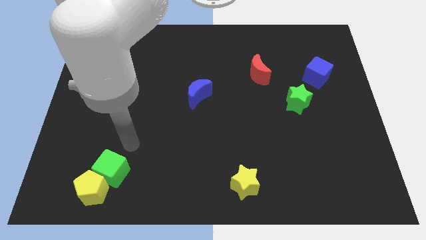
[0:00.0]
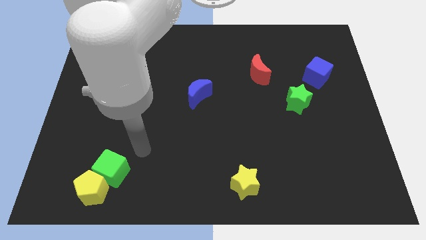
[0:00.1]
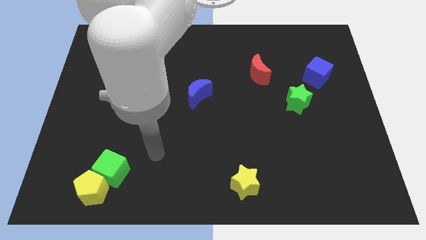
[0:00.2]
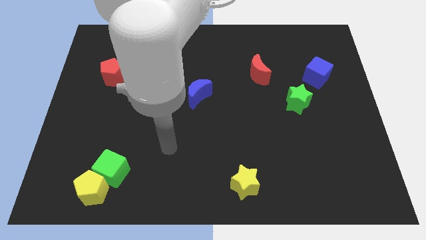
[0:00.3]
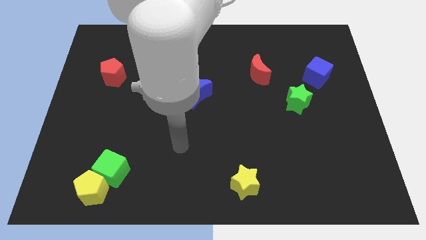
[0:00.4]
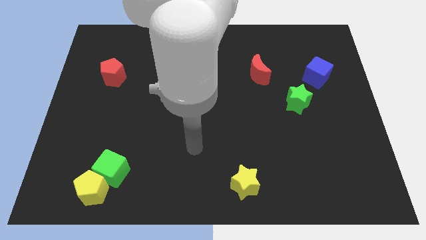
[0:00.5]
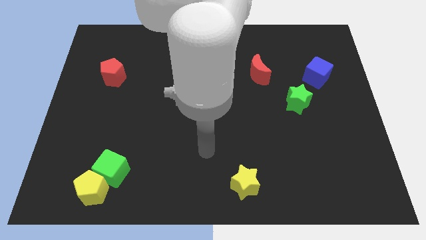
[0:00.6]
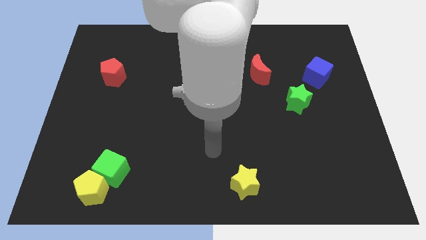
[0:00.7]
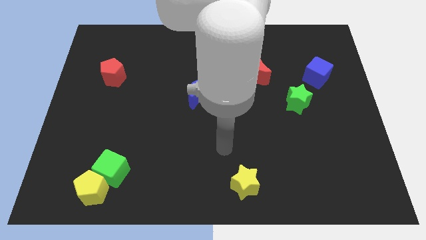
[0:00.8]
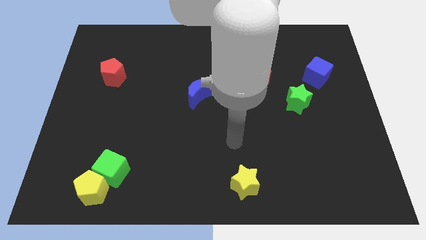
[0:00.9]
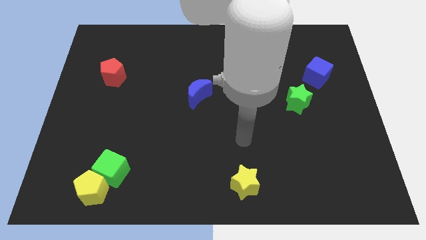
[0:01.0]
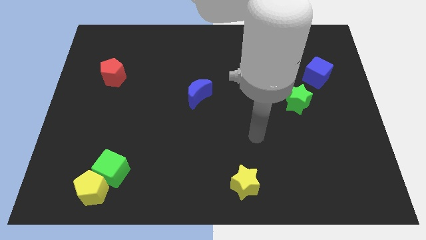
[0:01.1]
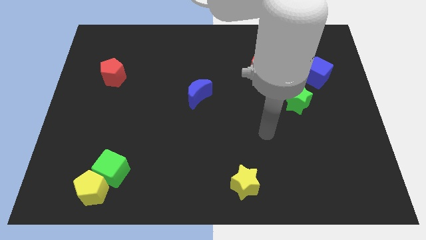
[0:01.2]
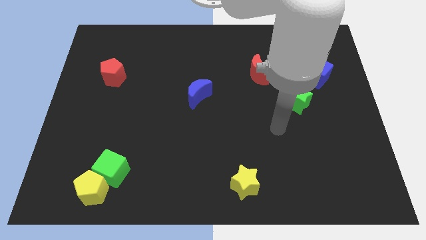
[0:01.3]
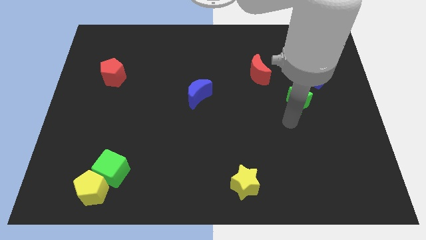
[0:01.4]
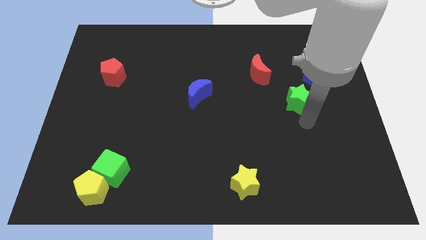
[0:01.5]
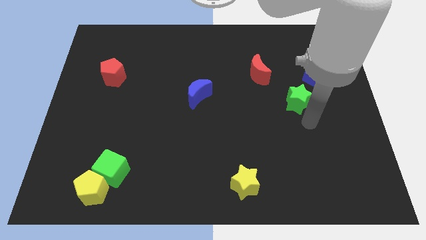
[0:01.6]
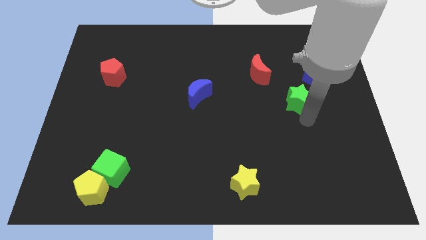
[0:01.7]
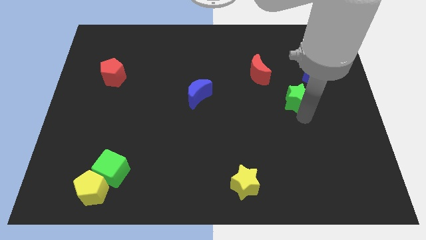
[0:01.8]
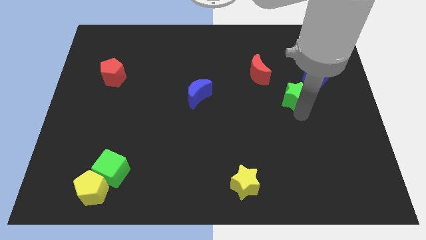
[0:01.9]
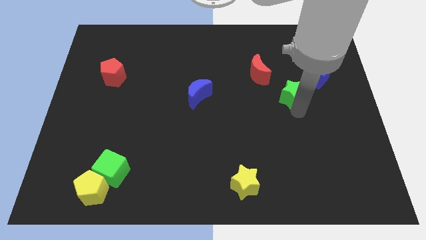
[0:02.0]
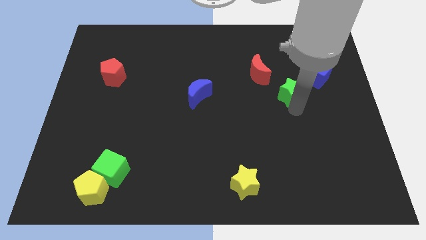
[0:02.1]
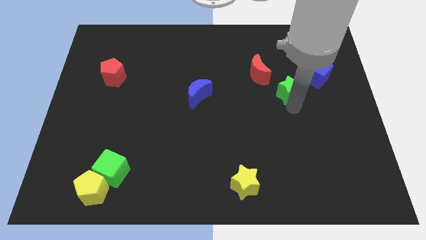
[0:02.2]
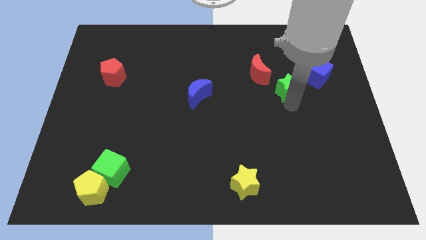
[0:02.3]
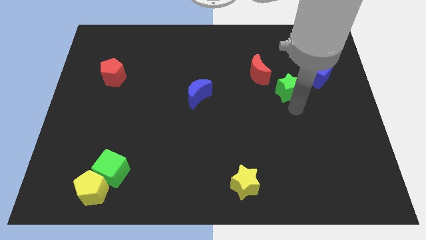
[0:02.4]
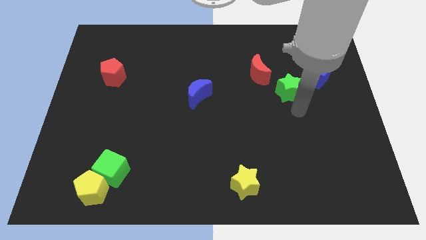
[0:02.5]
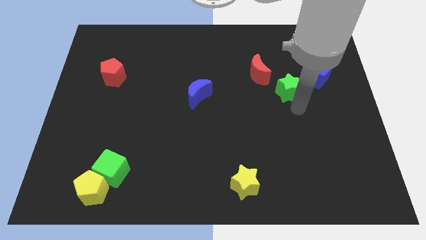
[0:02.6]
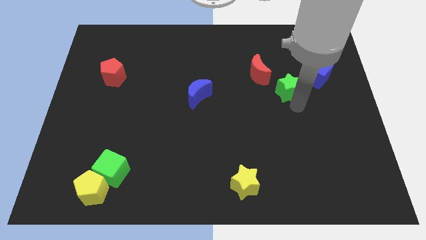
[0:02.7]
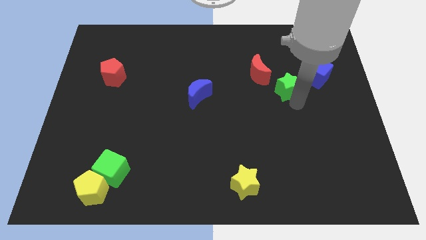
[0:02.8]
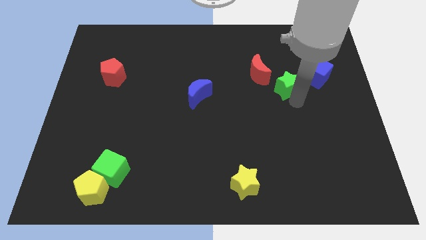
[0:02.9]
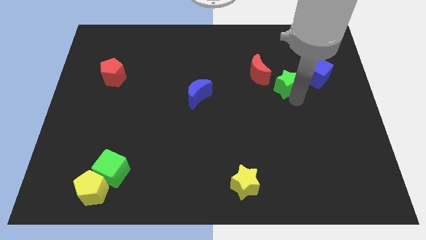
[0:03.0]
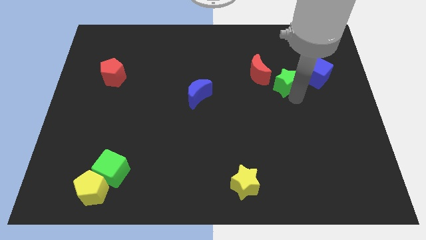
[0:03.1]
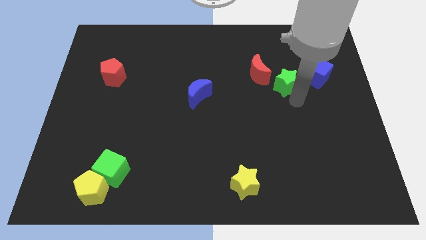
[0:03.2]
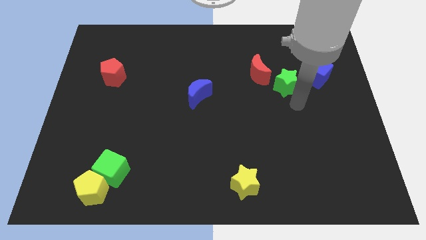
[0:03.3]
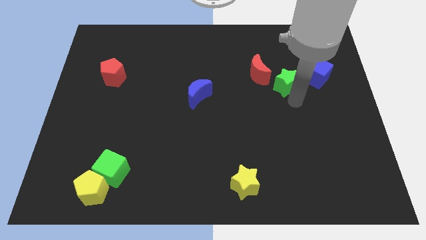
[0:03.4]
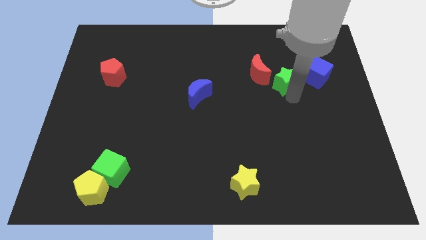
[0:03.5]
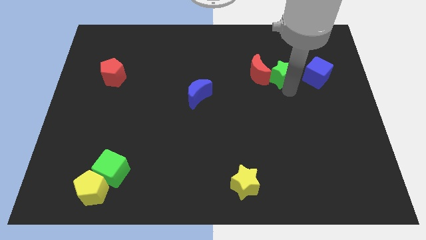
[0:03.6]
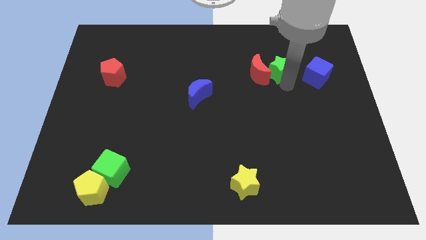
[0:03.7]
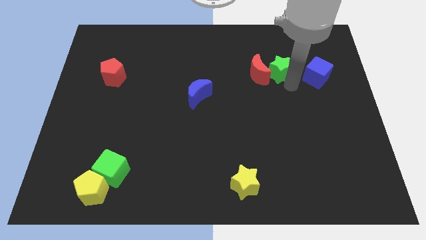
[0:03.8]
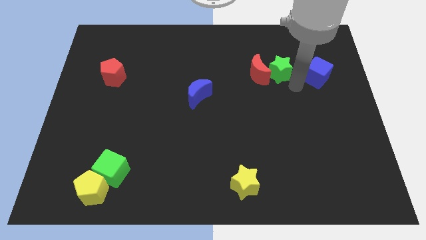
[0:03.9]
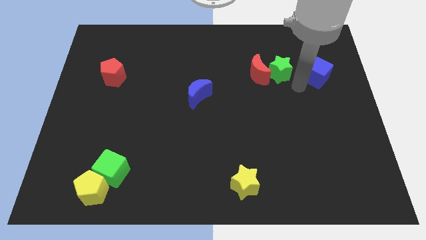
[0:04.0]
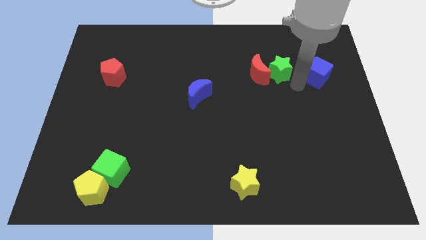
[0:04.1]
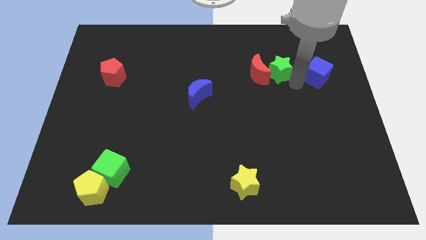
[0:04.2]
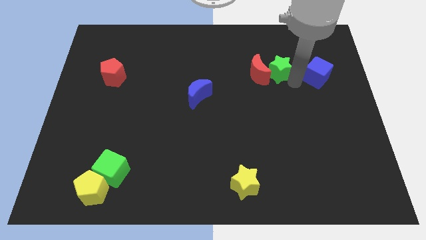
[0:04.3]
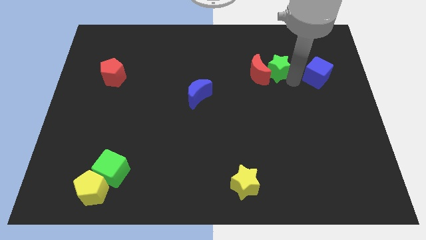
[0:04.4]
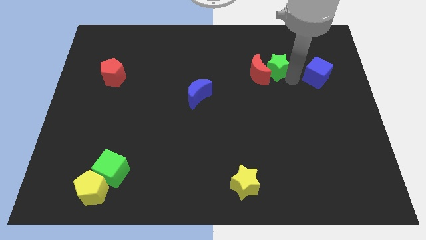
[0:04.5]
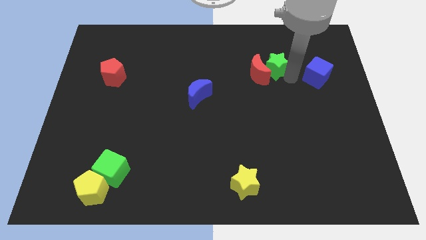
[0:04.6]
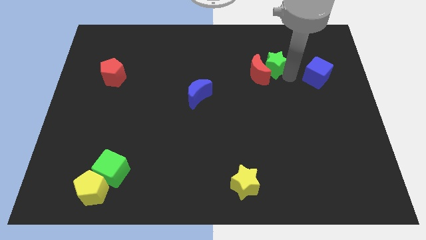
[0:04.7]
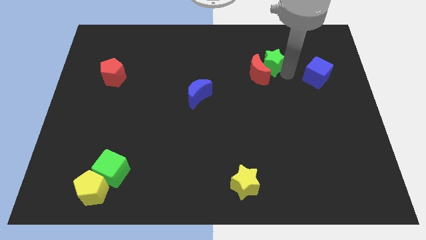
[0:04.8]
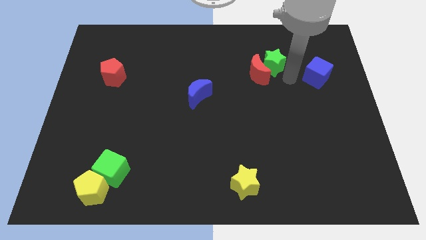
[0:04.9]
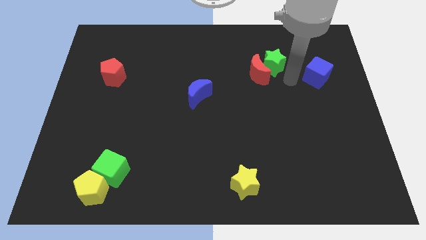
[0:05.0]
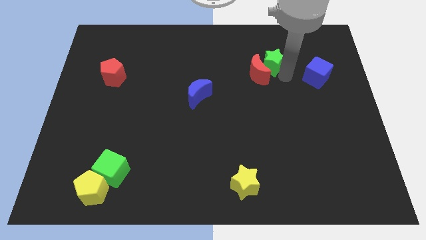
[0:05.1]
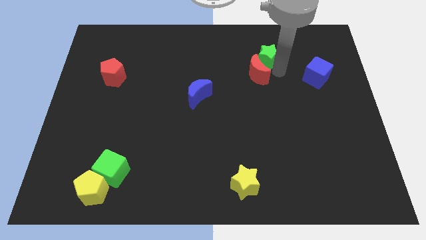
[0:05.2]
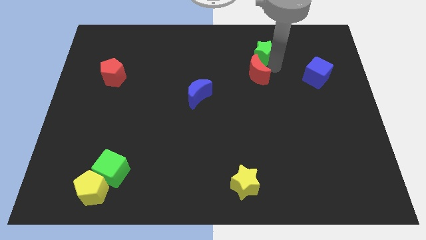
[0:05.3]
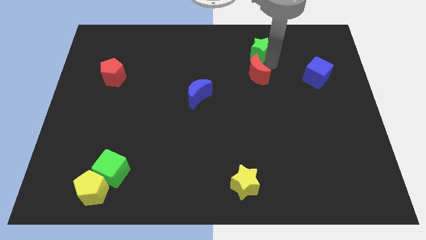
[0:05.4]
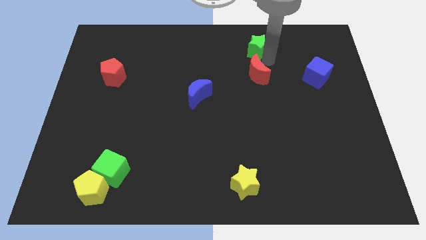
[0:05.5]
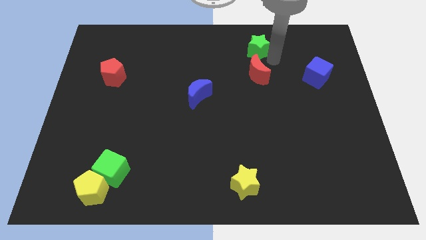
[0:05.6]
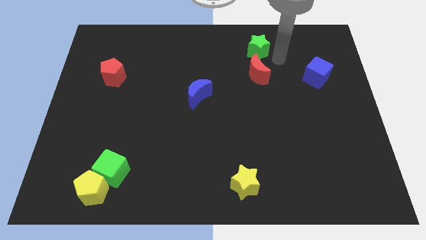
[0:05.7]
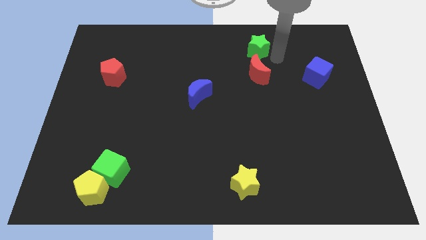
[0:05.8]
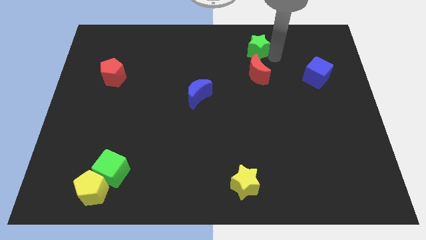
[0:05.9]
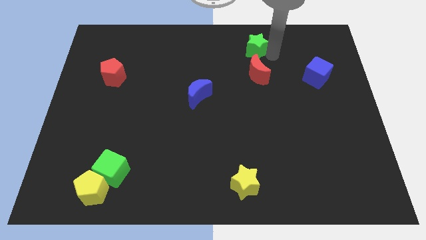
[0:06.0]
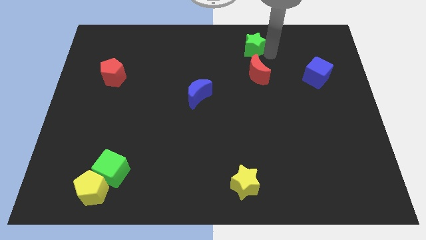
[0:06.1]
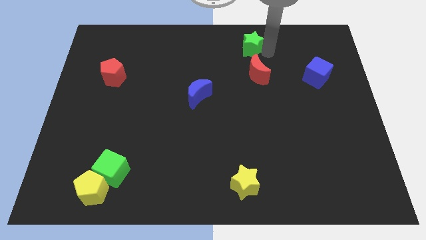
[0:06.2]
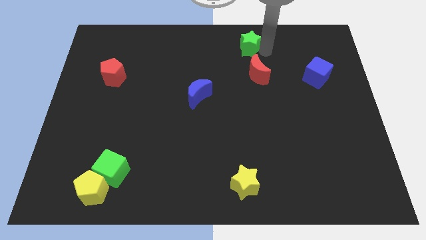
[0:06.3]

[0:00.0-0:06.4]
move the green star to the towards your base

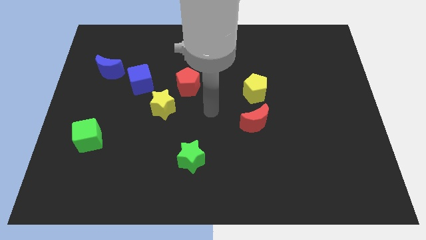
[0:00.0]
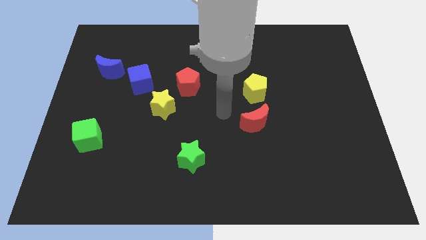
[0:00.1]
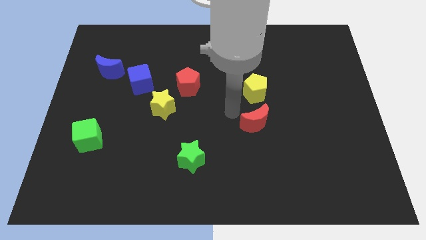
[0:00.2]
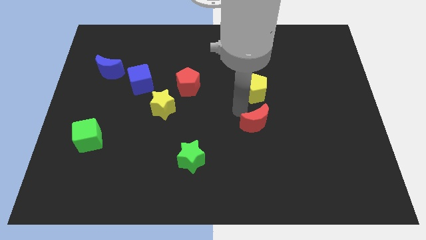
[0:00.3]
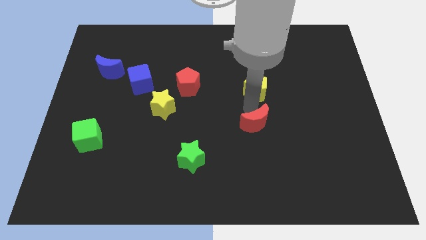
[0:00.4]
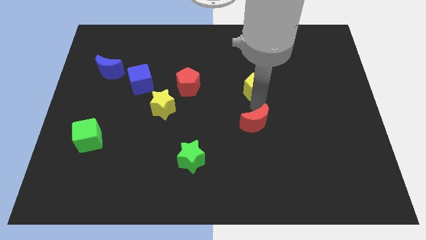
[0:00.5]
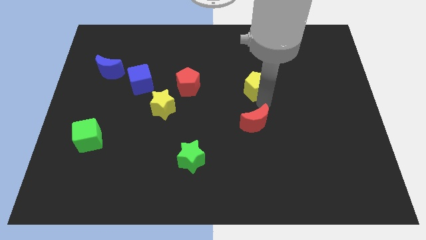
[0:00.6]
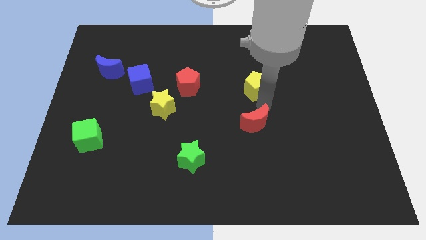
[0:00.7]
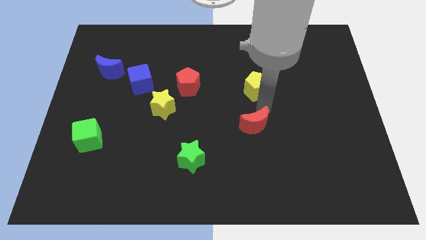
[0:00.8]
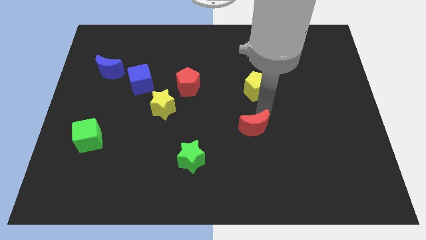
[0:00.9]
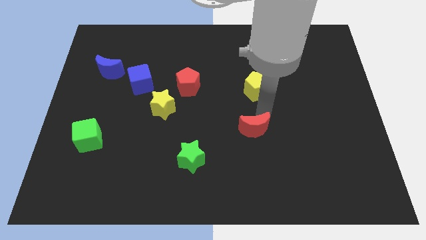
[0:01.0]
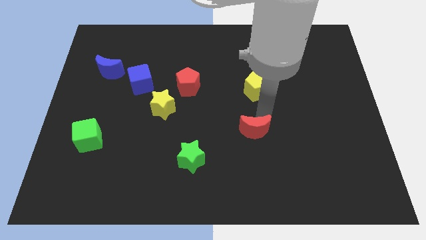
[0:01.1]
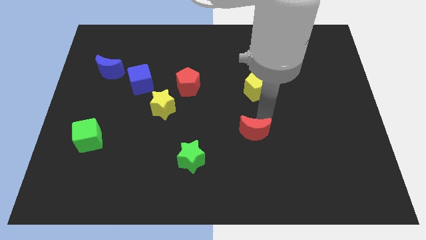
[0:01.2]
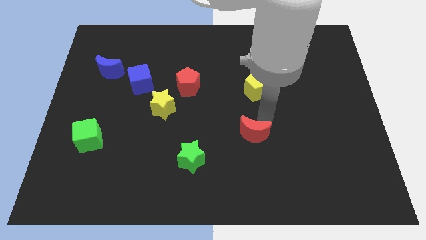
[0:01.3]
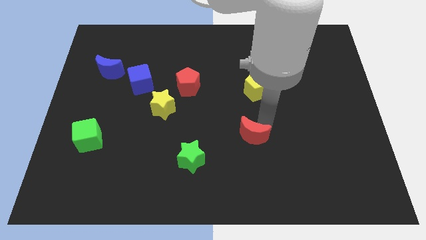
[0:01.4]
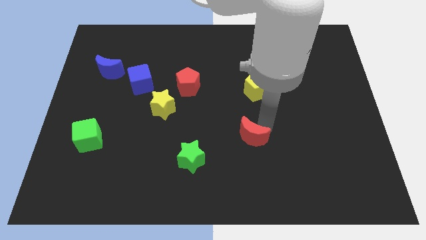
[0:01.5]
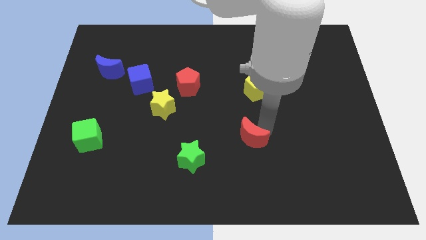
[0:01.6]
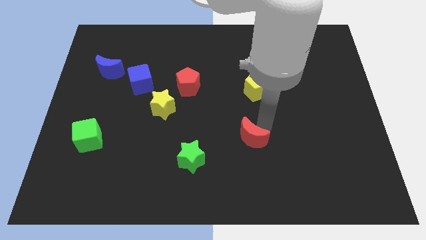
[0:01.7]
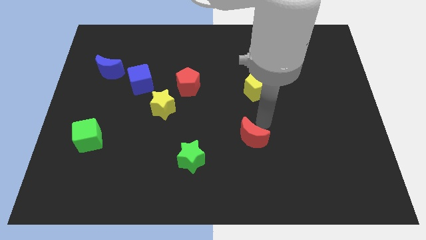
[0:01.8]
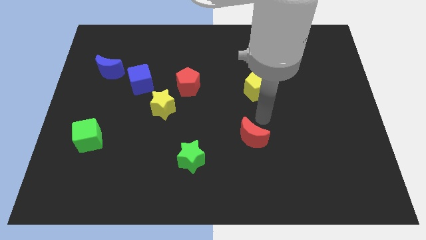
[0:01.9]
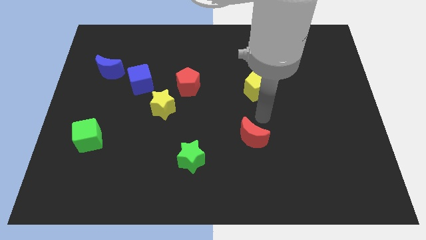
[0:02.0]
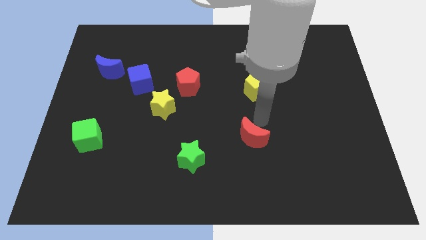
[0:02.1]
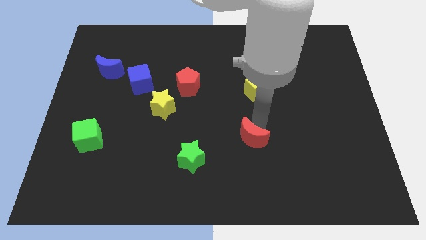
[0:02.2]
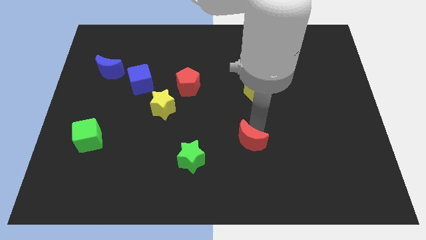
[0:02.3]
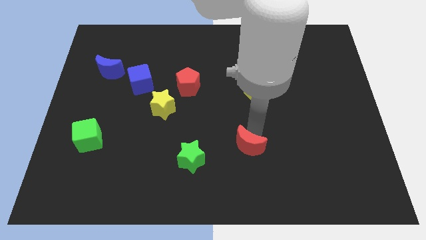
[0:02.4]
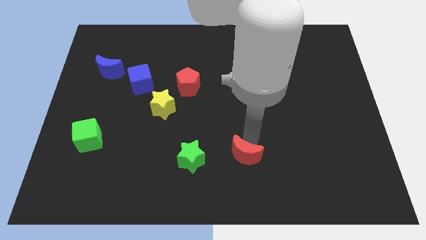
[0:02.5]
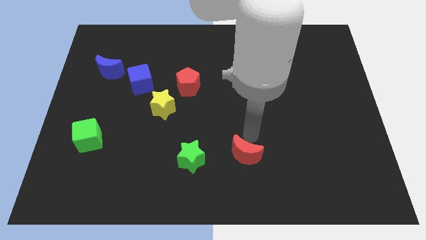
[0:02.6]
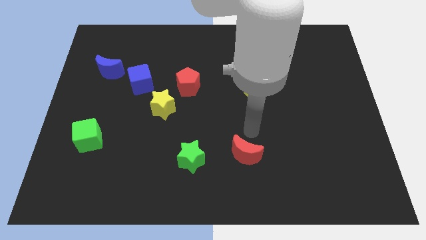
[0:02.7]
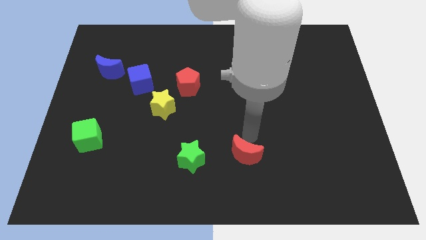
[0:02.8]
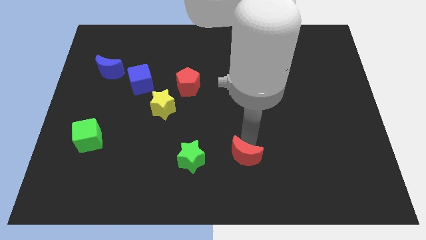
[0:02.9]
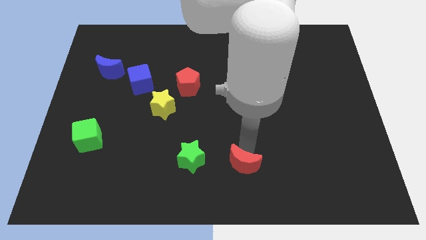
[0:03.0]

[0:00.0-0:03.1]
move the red moon to the bottom
